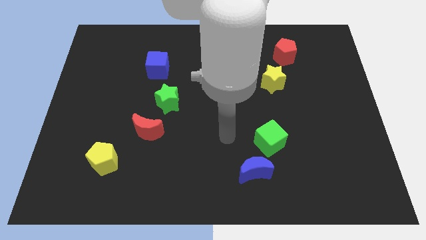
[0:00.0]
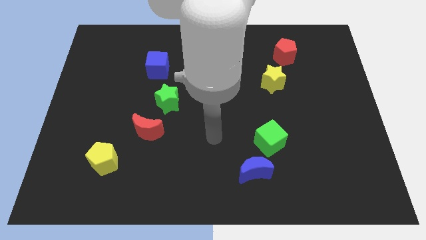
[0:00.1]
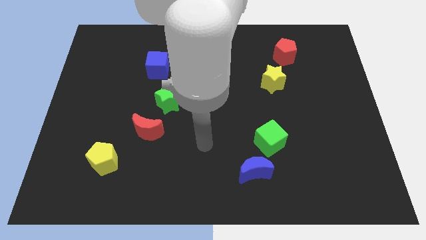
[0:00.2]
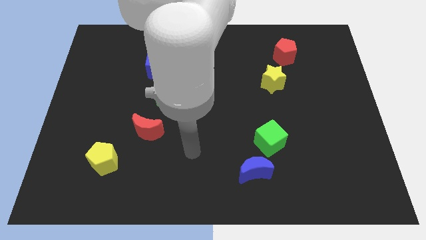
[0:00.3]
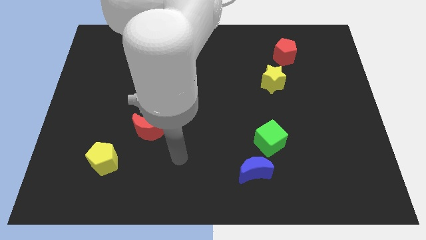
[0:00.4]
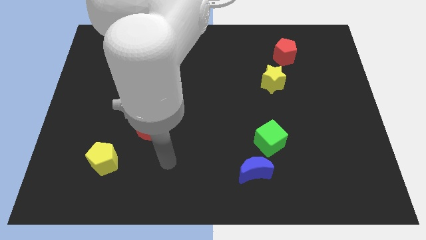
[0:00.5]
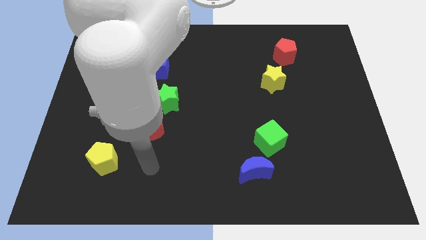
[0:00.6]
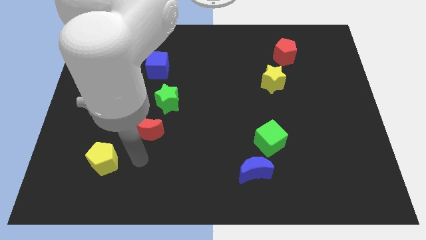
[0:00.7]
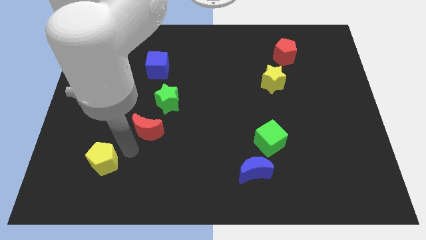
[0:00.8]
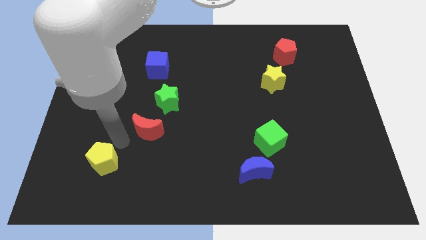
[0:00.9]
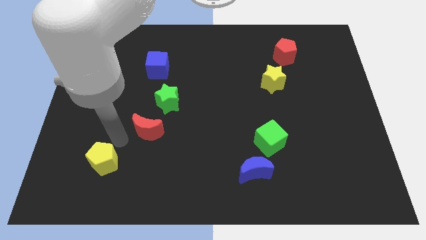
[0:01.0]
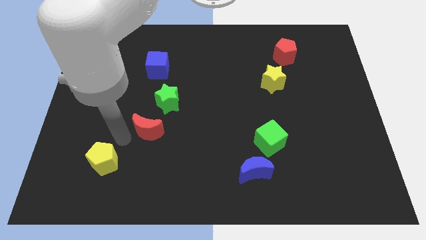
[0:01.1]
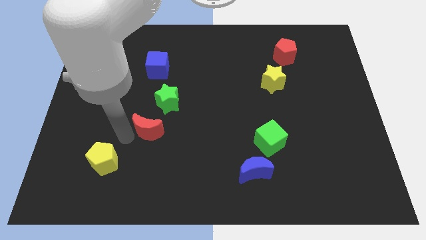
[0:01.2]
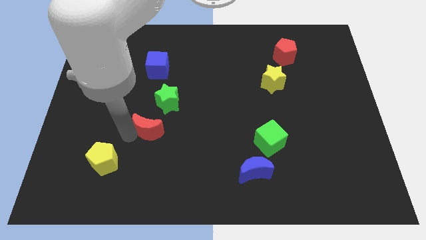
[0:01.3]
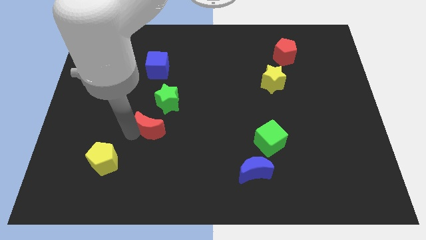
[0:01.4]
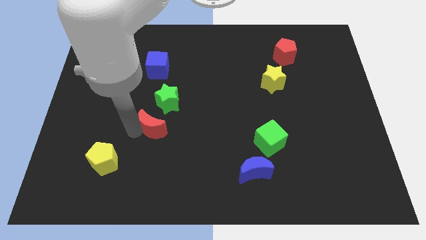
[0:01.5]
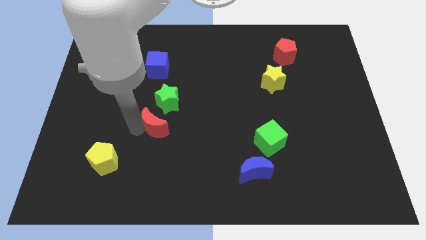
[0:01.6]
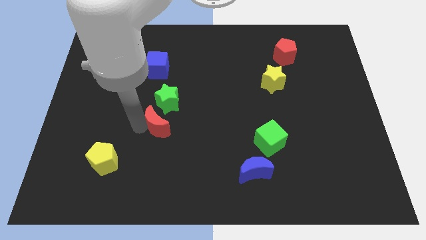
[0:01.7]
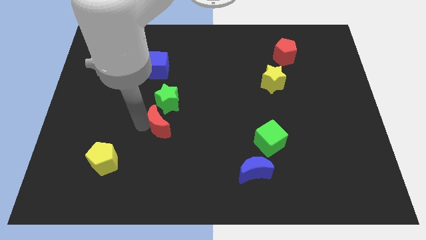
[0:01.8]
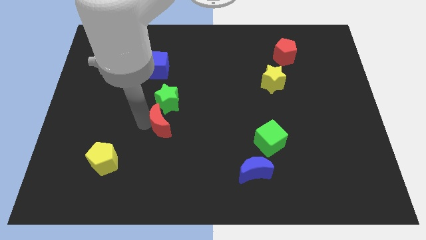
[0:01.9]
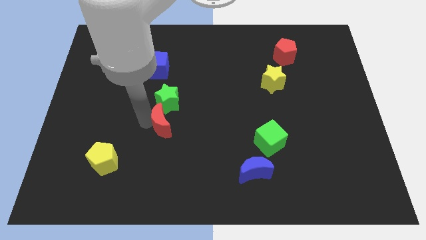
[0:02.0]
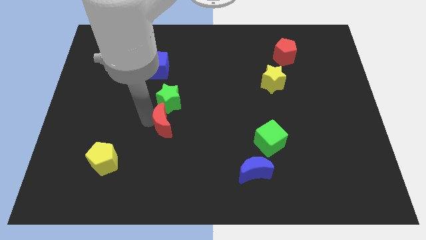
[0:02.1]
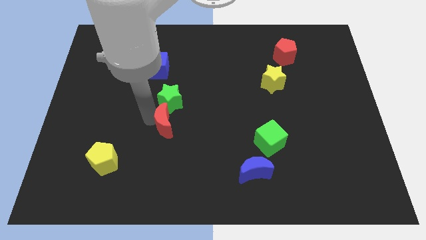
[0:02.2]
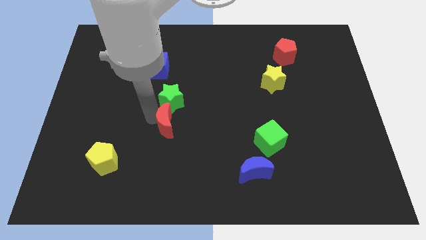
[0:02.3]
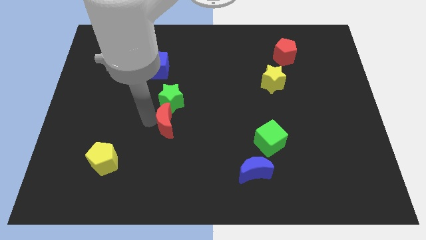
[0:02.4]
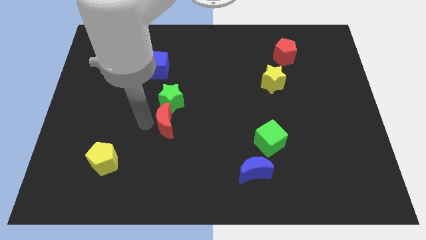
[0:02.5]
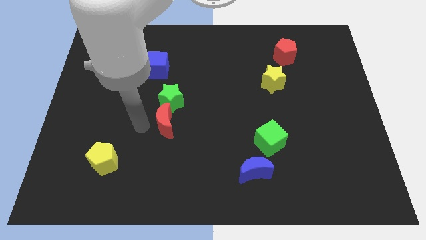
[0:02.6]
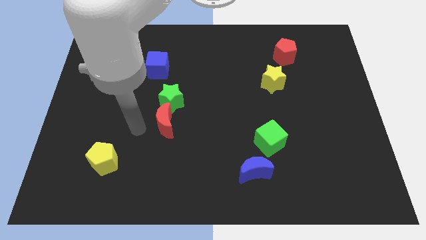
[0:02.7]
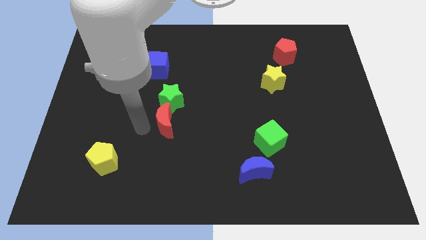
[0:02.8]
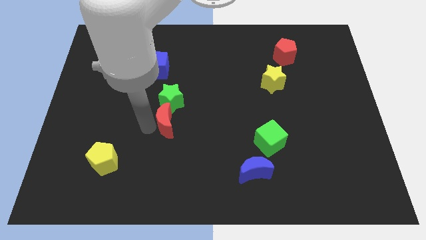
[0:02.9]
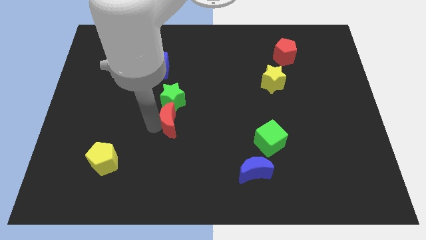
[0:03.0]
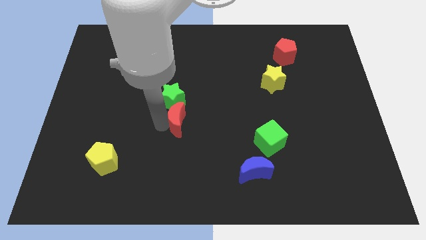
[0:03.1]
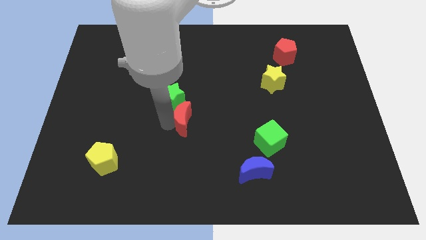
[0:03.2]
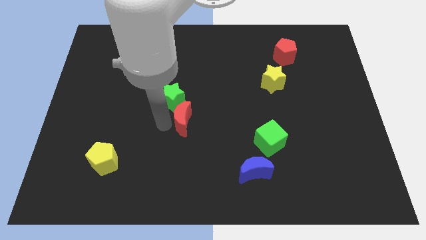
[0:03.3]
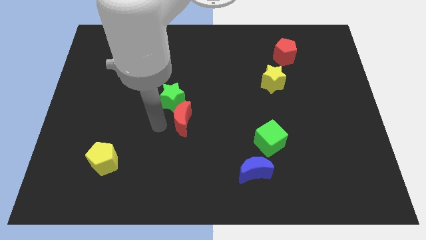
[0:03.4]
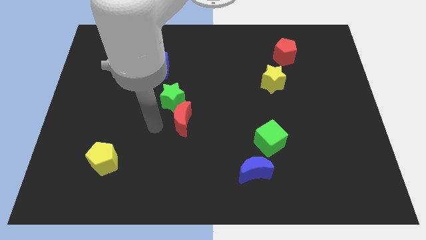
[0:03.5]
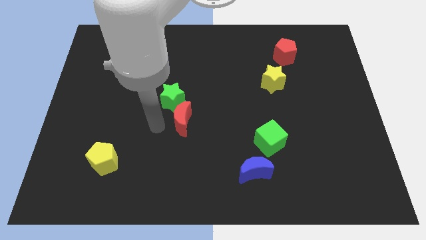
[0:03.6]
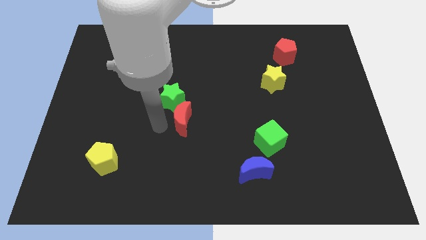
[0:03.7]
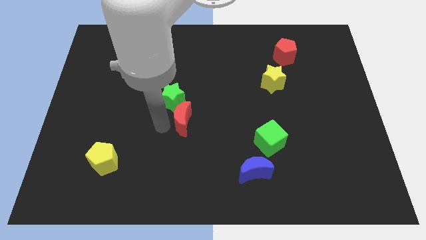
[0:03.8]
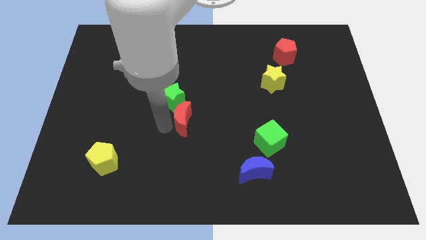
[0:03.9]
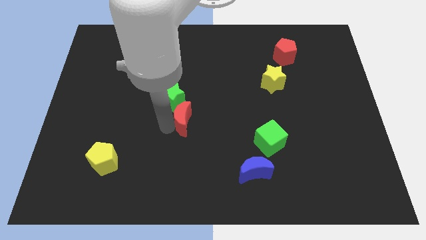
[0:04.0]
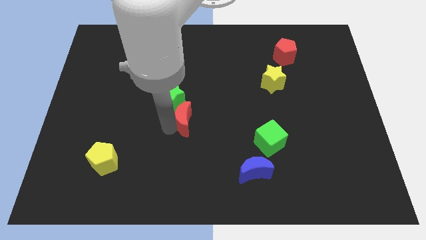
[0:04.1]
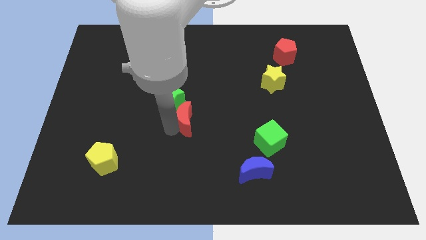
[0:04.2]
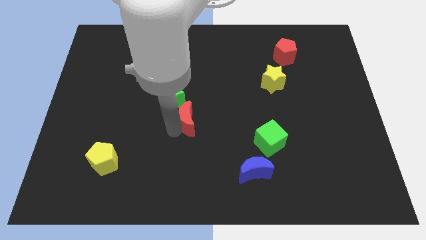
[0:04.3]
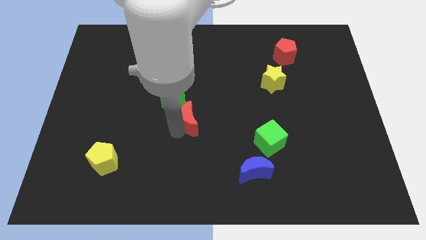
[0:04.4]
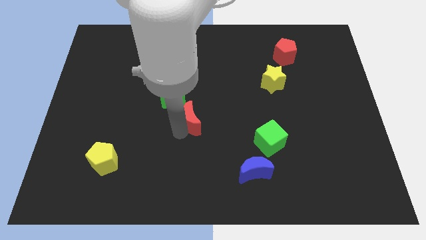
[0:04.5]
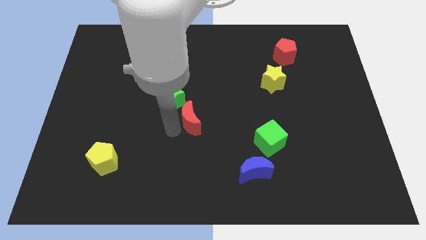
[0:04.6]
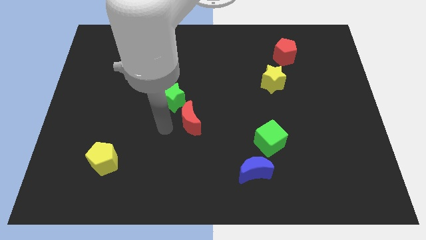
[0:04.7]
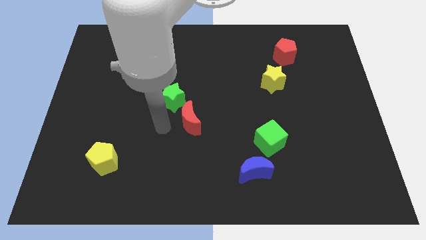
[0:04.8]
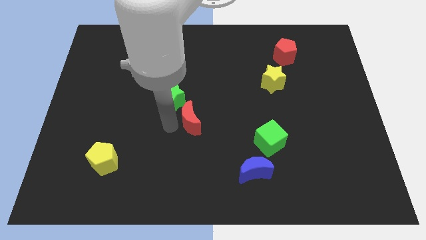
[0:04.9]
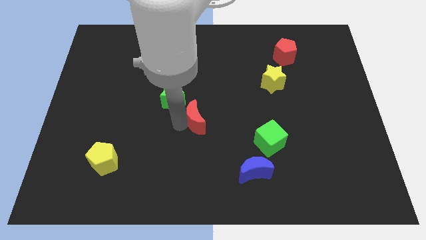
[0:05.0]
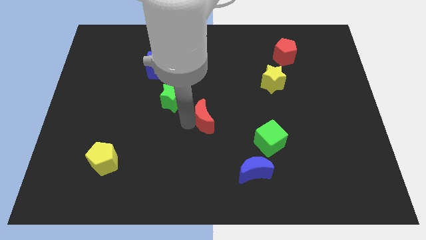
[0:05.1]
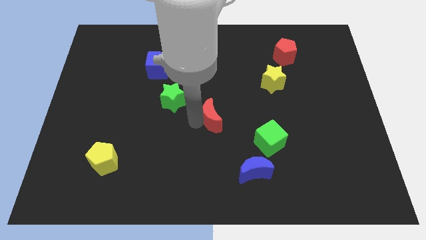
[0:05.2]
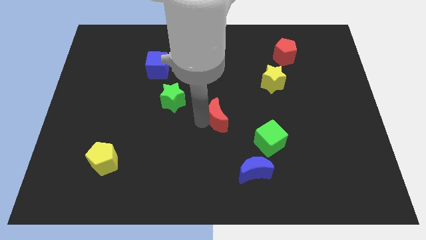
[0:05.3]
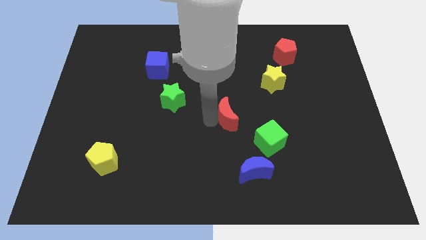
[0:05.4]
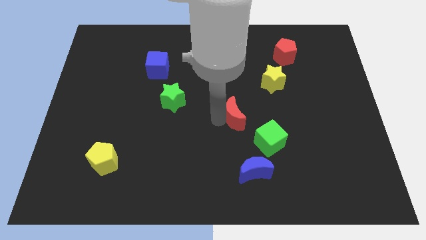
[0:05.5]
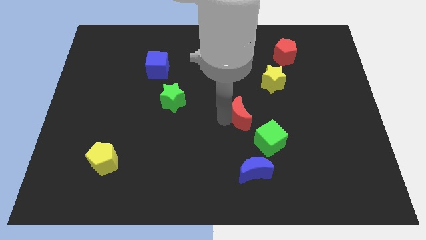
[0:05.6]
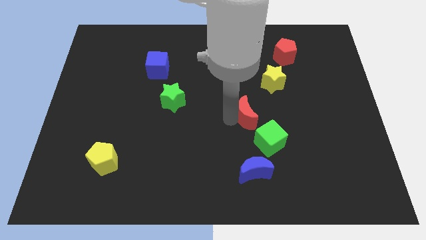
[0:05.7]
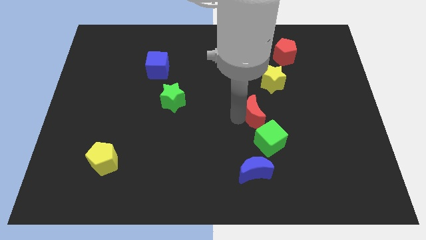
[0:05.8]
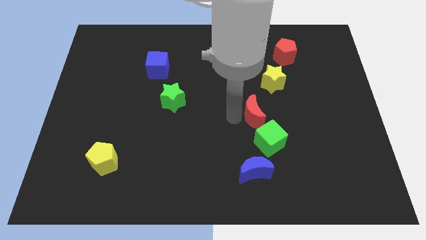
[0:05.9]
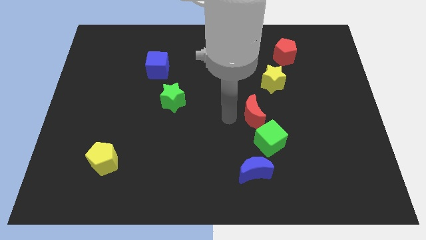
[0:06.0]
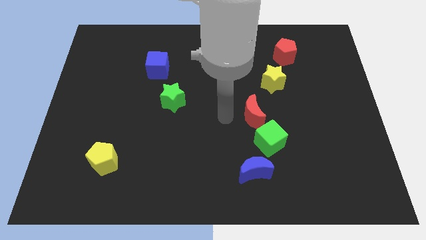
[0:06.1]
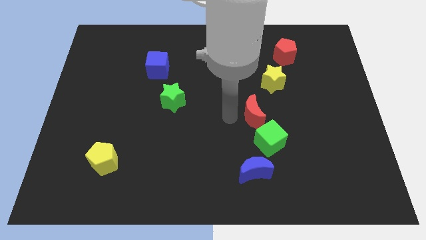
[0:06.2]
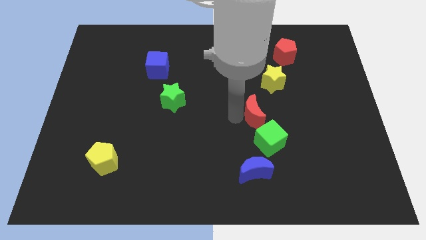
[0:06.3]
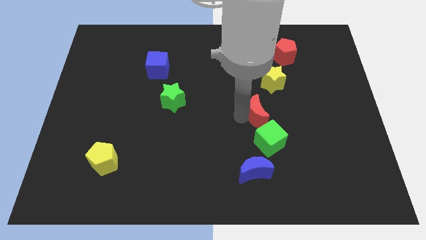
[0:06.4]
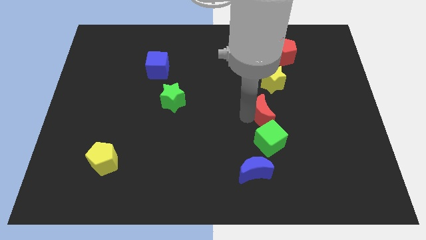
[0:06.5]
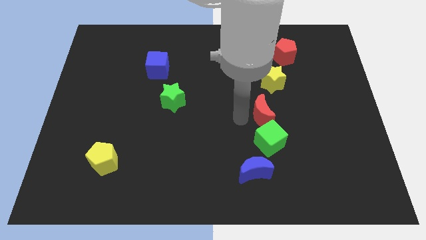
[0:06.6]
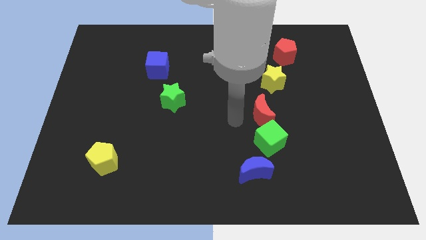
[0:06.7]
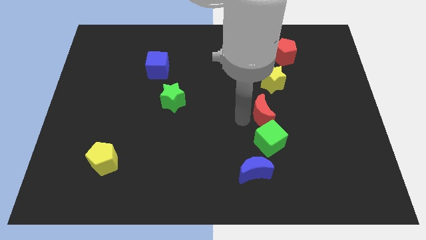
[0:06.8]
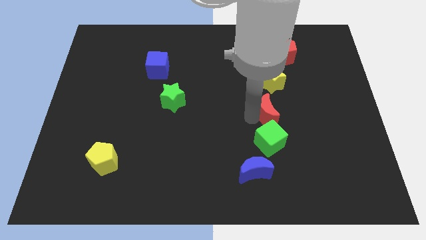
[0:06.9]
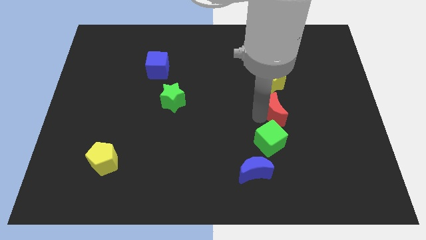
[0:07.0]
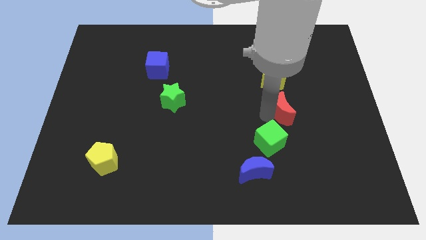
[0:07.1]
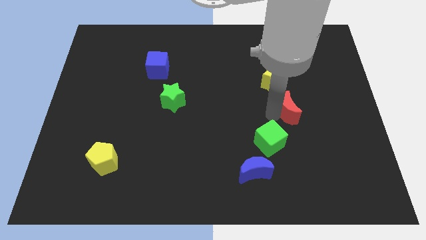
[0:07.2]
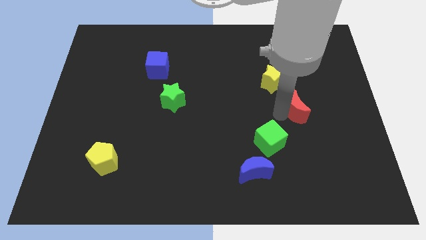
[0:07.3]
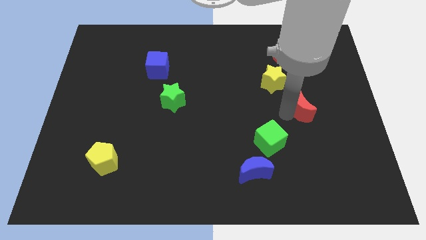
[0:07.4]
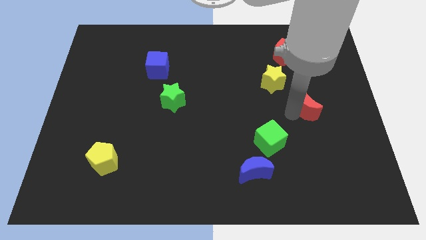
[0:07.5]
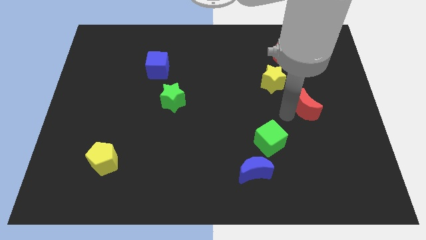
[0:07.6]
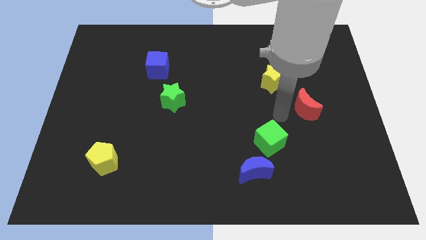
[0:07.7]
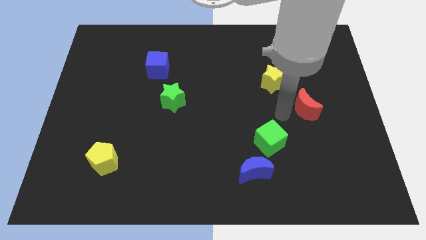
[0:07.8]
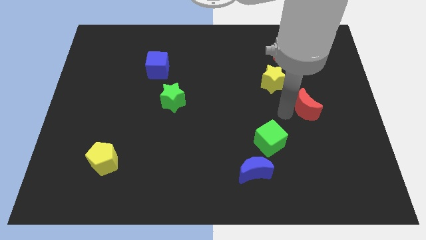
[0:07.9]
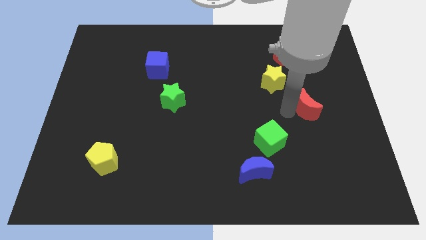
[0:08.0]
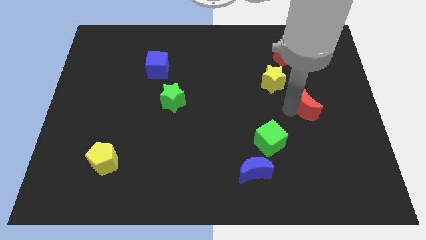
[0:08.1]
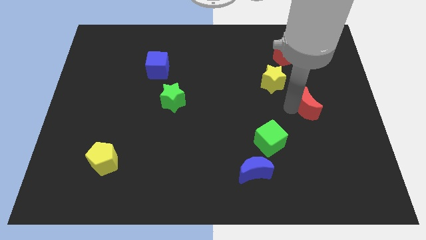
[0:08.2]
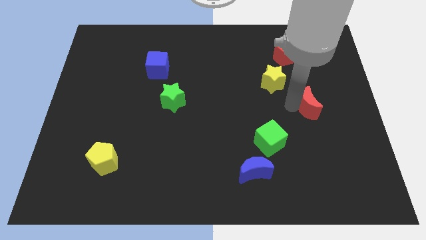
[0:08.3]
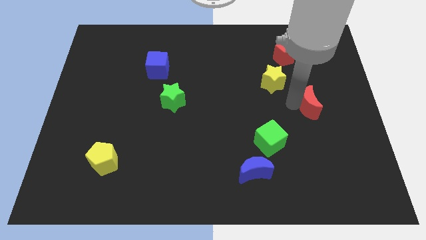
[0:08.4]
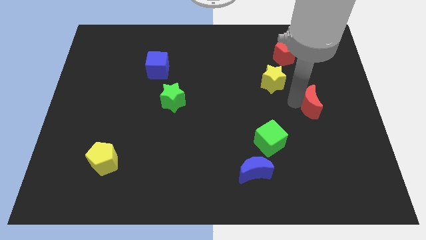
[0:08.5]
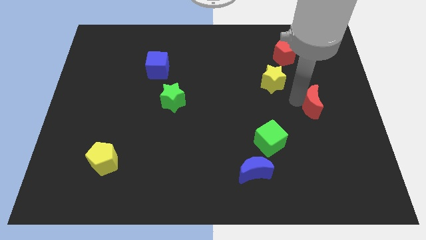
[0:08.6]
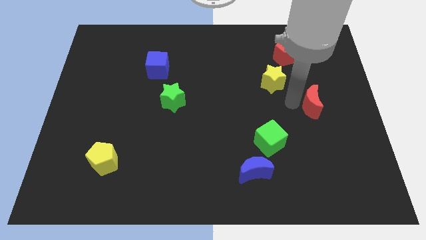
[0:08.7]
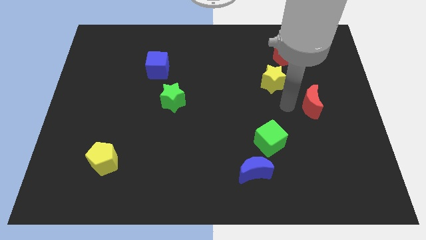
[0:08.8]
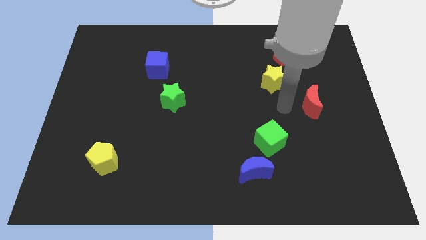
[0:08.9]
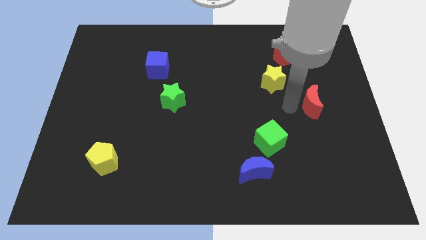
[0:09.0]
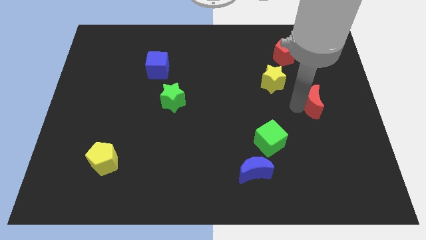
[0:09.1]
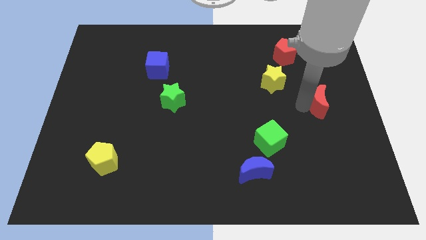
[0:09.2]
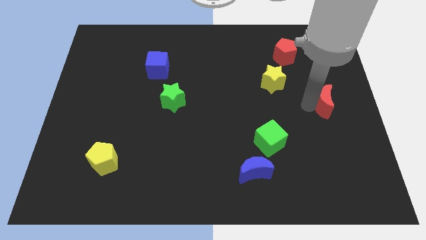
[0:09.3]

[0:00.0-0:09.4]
put the red moon to the right side of the board
